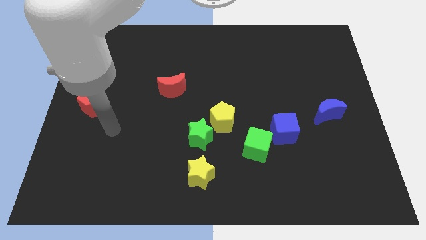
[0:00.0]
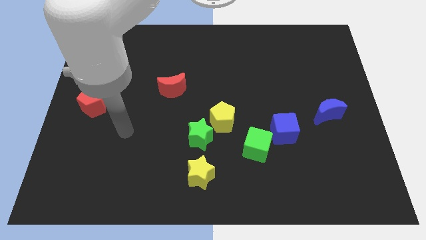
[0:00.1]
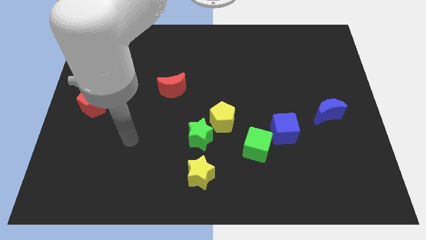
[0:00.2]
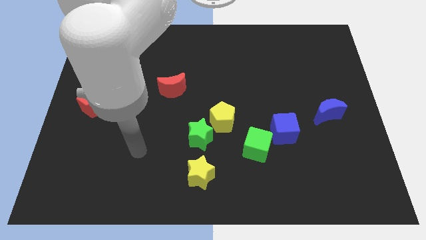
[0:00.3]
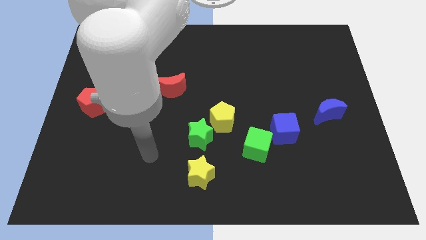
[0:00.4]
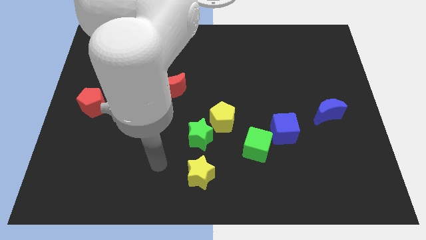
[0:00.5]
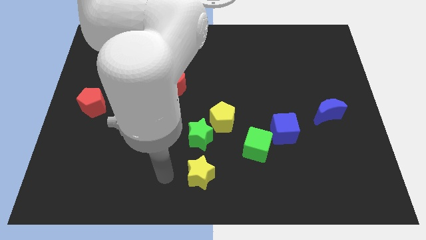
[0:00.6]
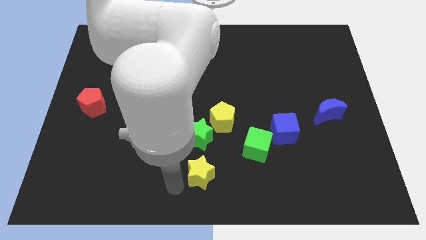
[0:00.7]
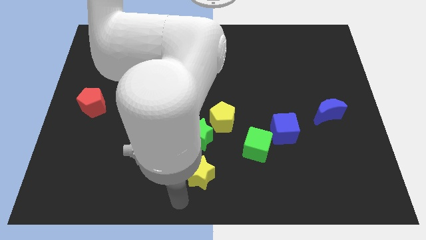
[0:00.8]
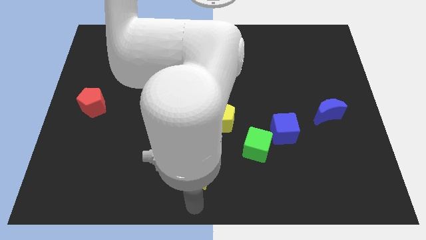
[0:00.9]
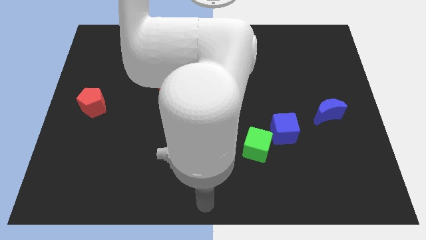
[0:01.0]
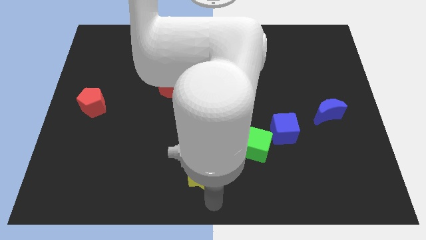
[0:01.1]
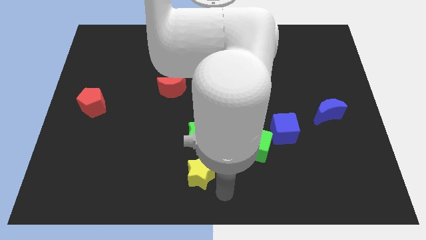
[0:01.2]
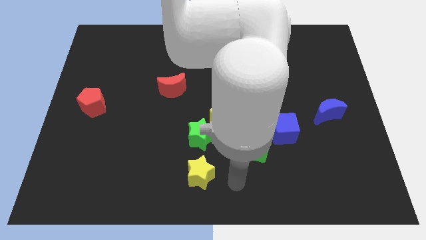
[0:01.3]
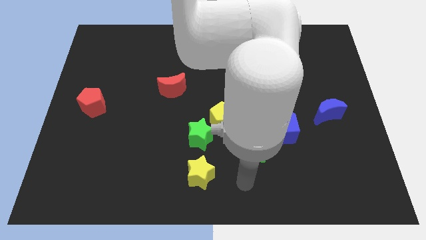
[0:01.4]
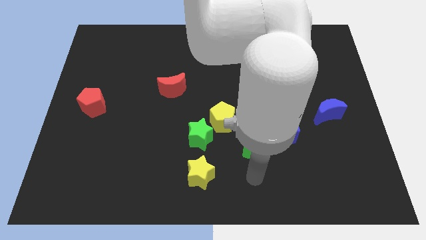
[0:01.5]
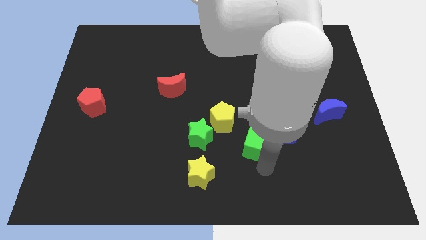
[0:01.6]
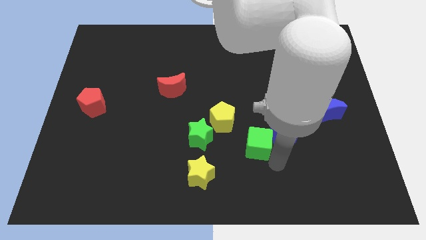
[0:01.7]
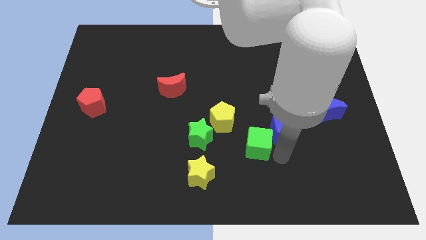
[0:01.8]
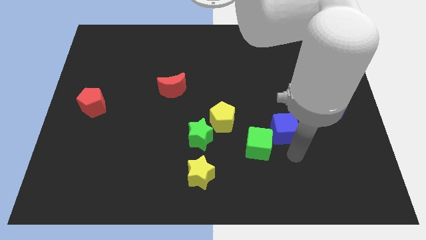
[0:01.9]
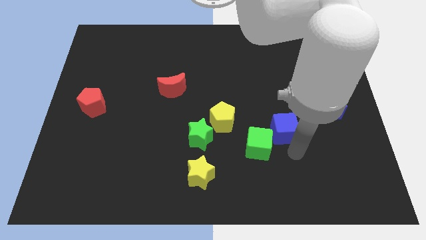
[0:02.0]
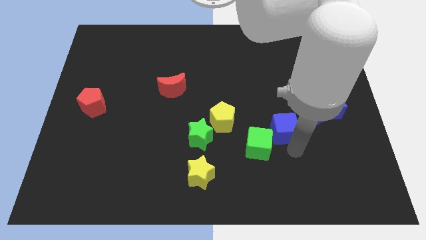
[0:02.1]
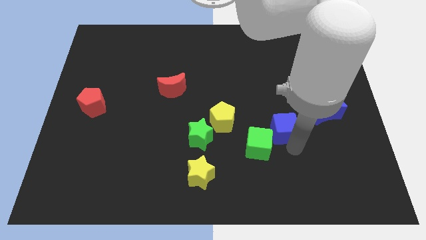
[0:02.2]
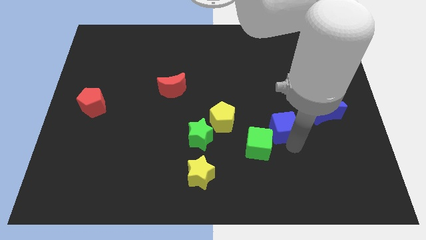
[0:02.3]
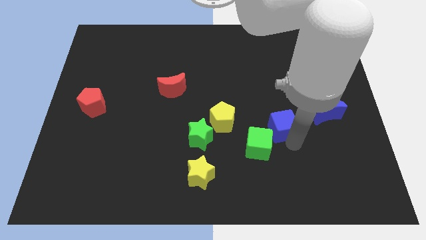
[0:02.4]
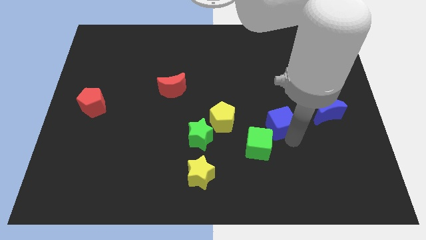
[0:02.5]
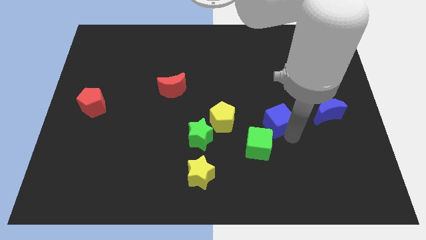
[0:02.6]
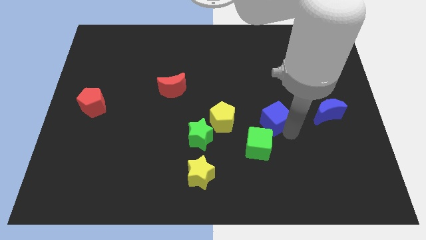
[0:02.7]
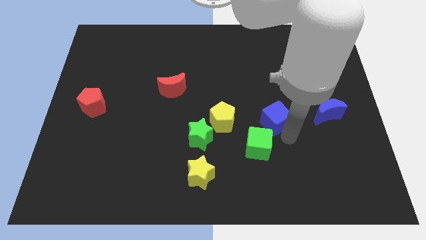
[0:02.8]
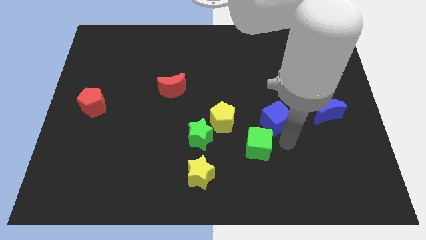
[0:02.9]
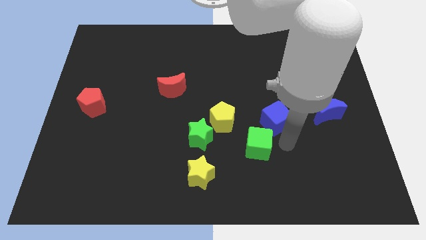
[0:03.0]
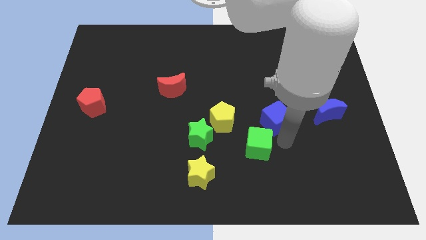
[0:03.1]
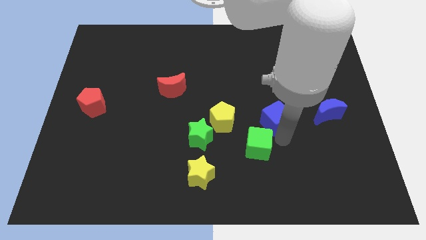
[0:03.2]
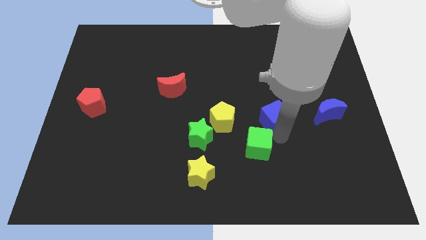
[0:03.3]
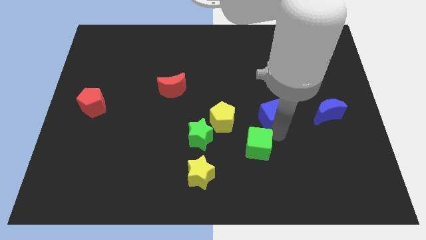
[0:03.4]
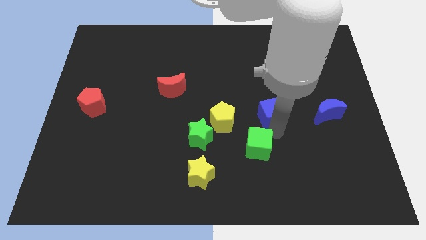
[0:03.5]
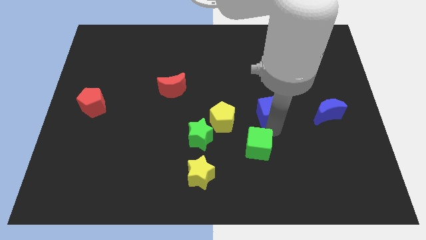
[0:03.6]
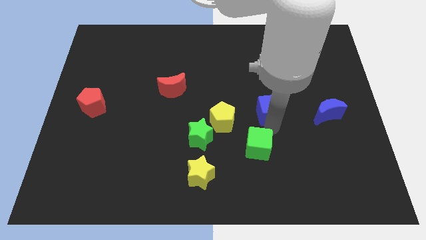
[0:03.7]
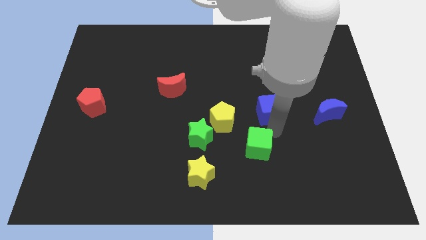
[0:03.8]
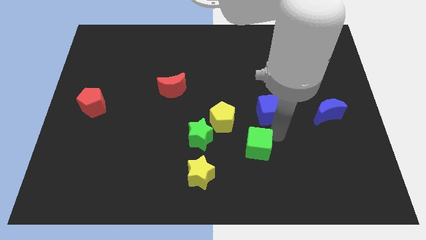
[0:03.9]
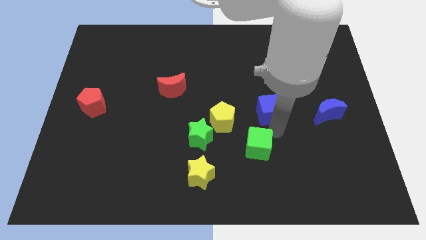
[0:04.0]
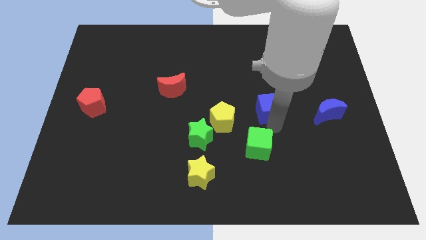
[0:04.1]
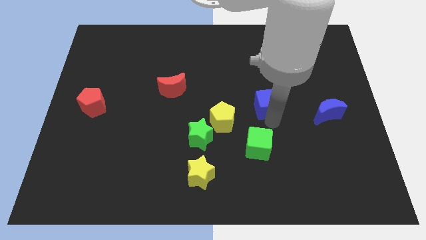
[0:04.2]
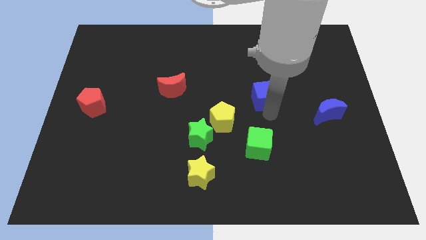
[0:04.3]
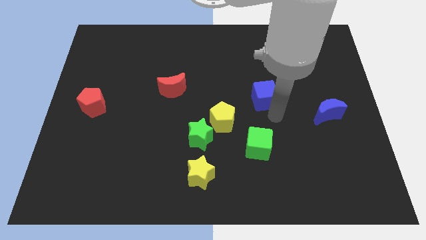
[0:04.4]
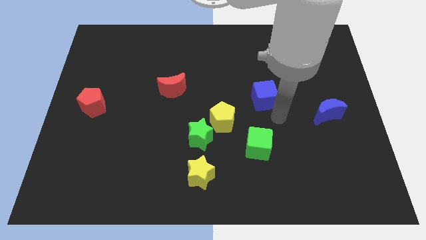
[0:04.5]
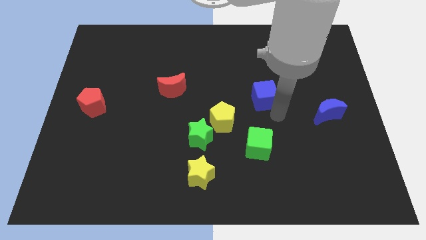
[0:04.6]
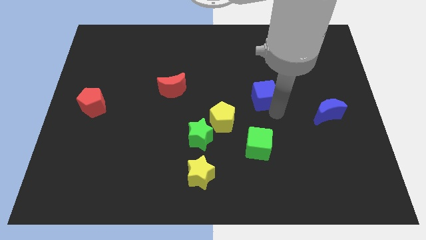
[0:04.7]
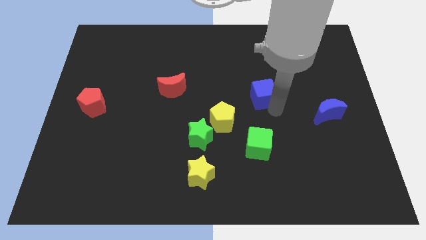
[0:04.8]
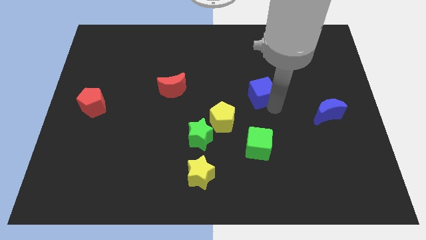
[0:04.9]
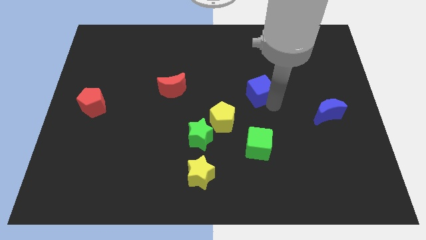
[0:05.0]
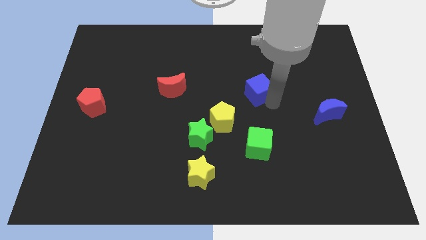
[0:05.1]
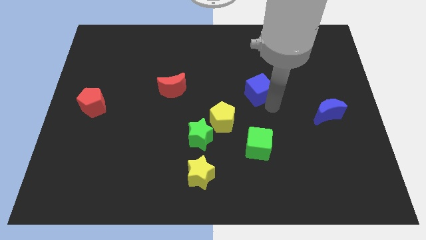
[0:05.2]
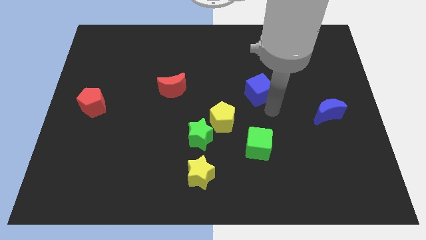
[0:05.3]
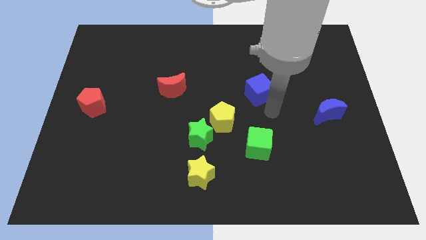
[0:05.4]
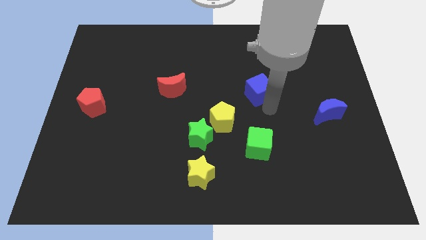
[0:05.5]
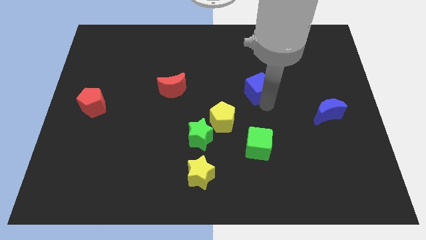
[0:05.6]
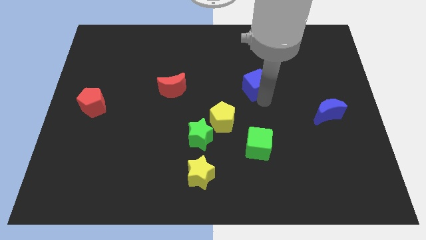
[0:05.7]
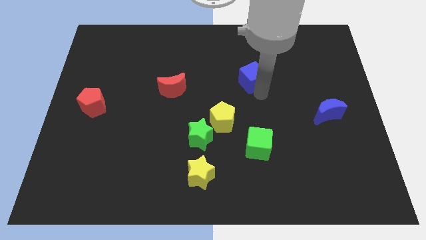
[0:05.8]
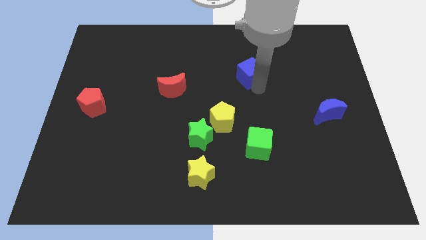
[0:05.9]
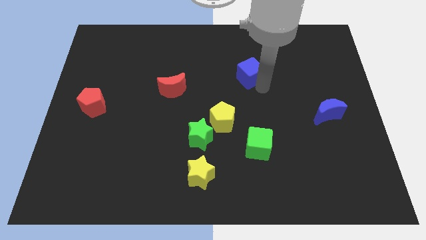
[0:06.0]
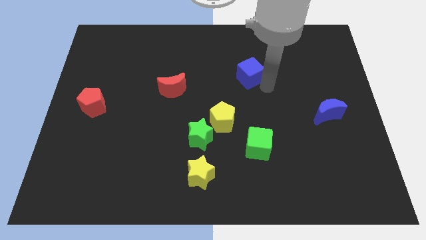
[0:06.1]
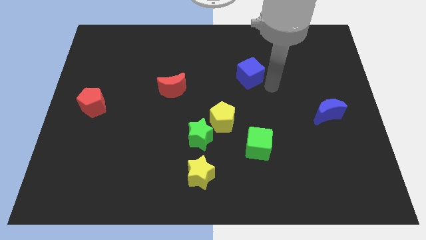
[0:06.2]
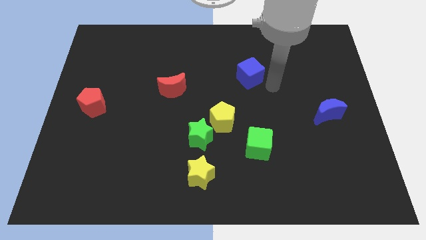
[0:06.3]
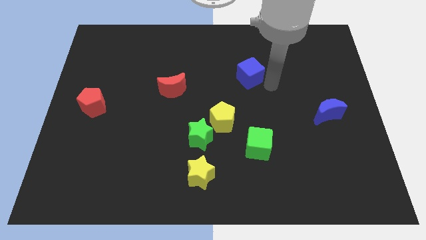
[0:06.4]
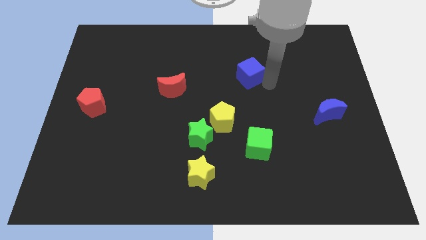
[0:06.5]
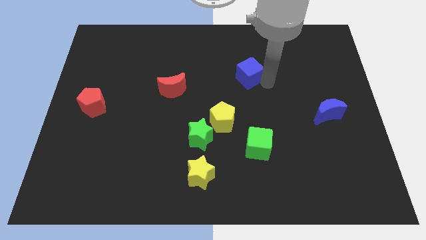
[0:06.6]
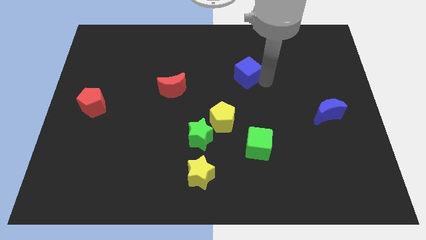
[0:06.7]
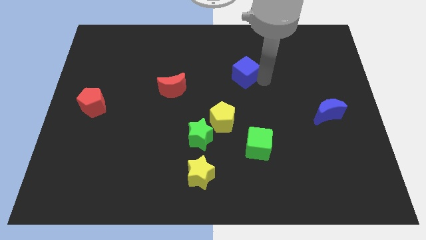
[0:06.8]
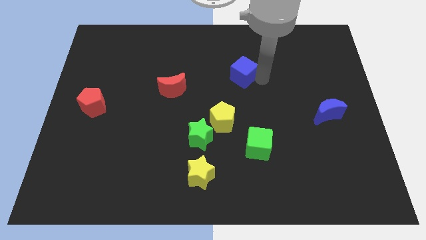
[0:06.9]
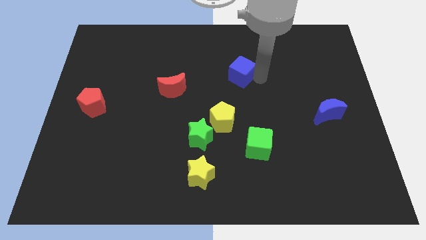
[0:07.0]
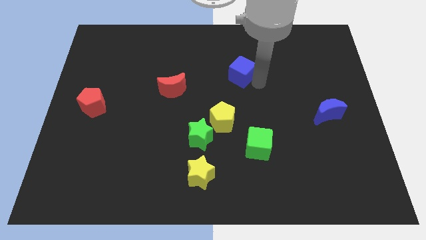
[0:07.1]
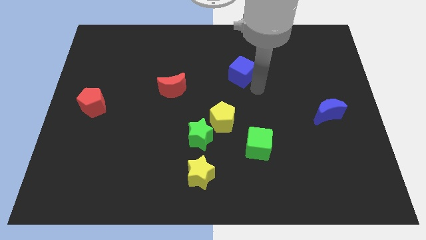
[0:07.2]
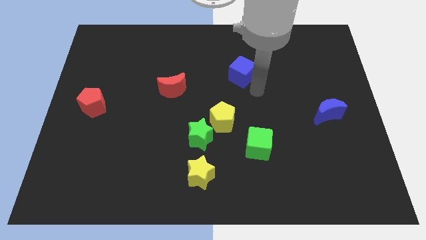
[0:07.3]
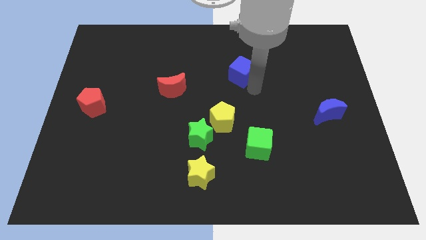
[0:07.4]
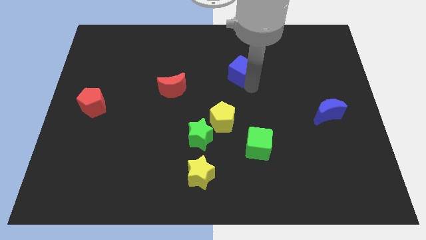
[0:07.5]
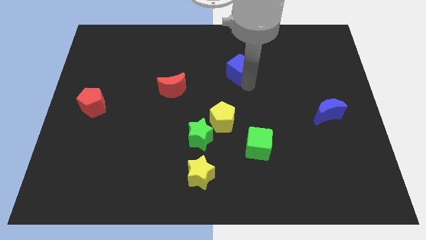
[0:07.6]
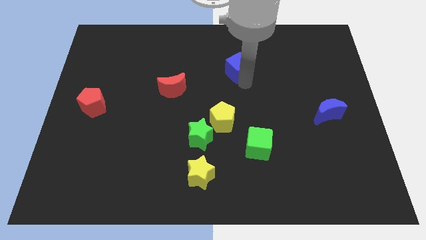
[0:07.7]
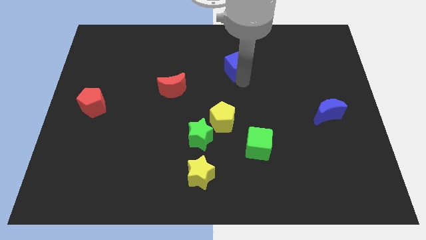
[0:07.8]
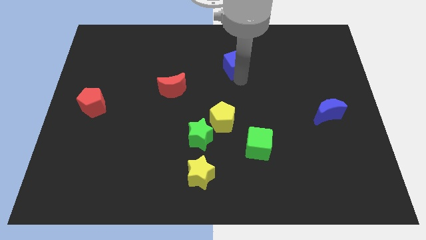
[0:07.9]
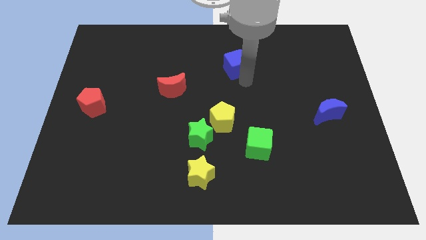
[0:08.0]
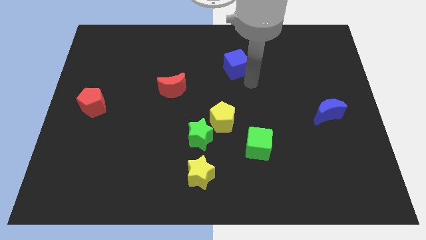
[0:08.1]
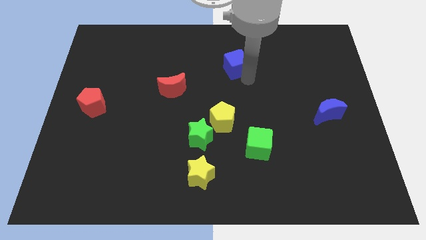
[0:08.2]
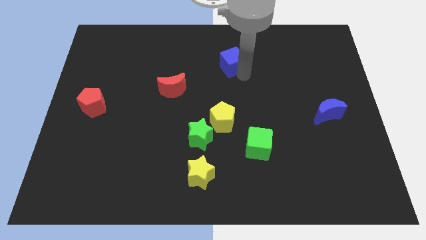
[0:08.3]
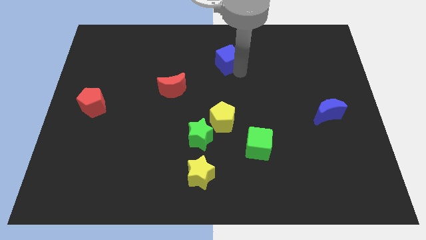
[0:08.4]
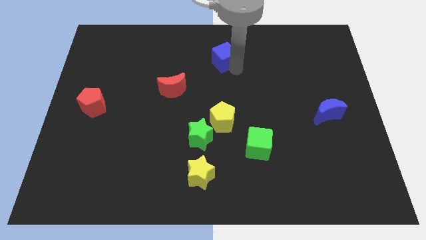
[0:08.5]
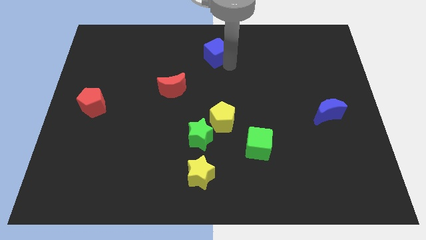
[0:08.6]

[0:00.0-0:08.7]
slide the blue cube to the top
